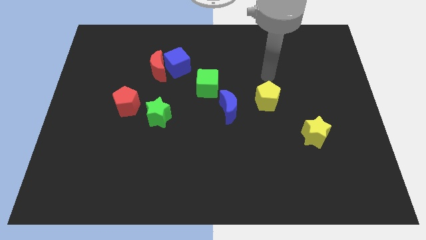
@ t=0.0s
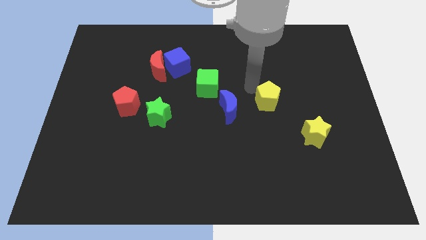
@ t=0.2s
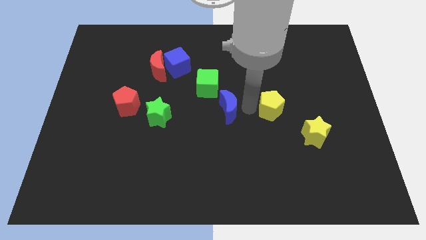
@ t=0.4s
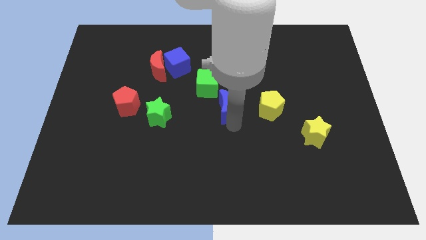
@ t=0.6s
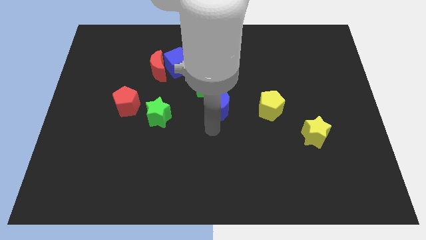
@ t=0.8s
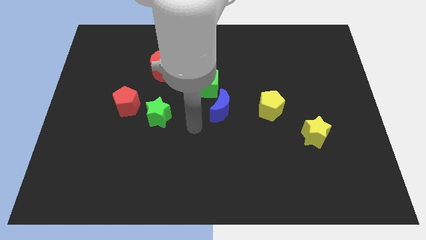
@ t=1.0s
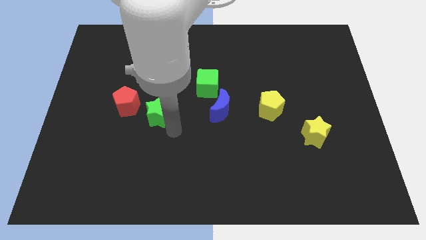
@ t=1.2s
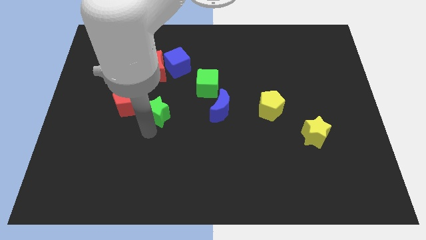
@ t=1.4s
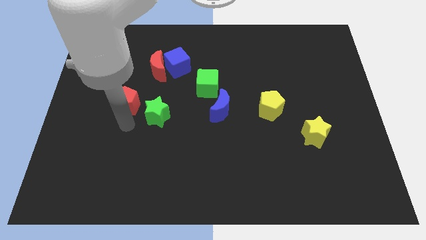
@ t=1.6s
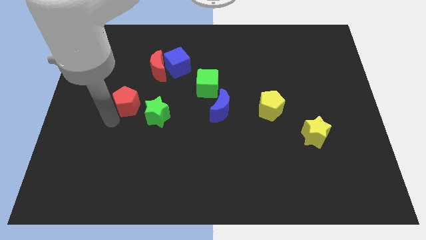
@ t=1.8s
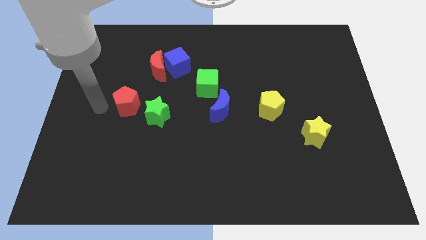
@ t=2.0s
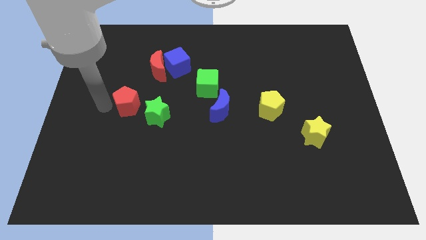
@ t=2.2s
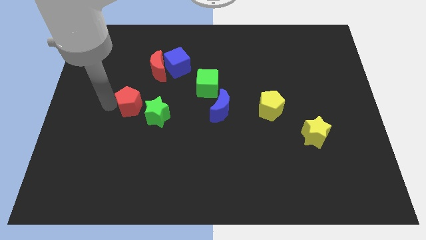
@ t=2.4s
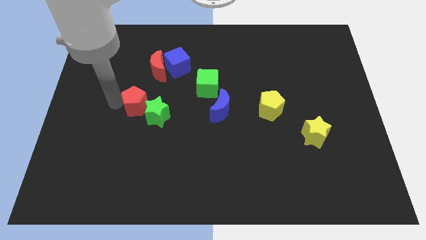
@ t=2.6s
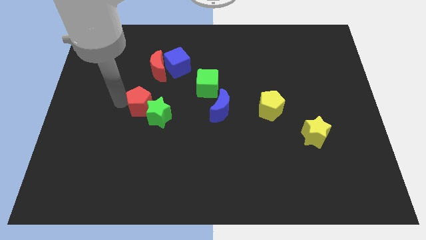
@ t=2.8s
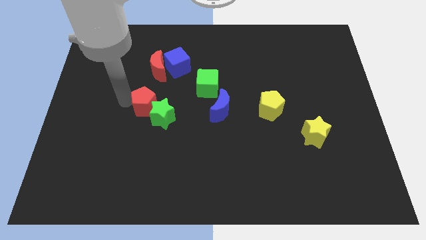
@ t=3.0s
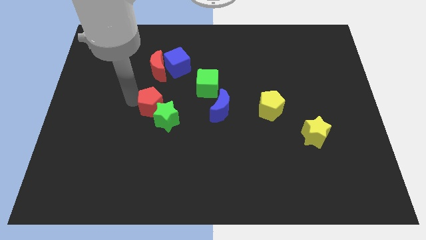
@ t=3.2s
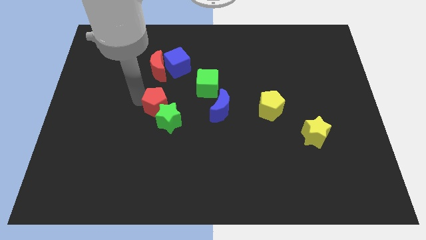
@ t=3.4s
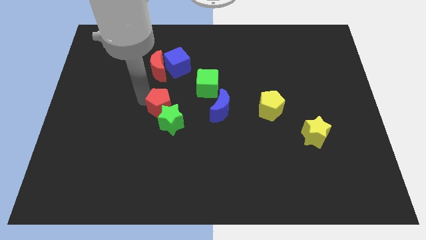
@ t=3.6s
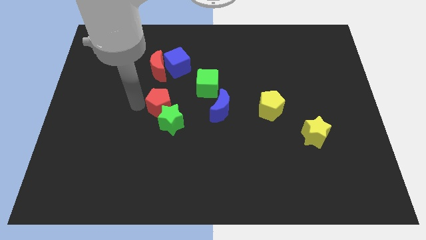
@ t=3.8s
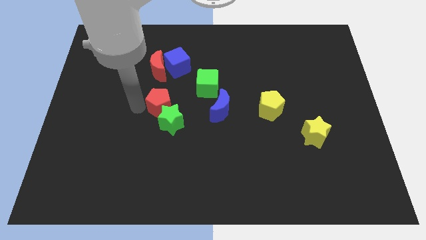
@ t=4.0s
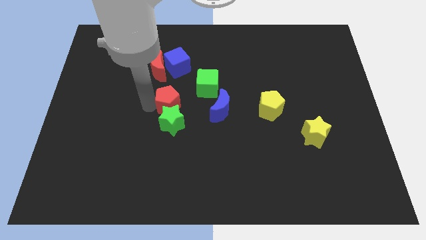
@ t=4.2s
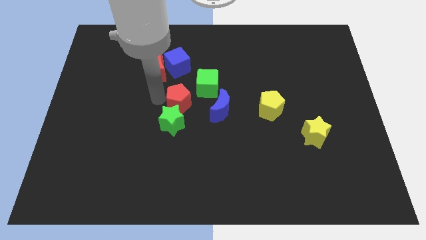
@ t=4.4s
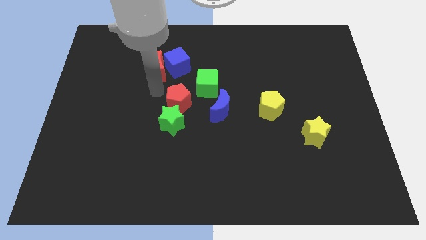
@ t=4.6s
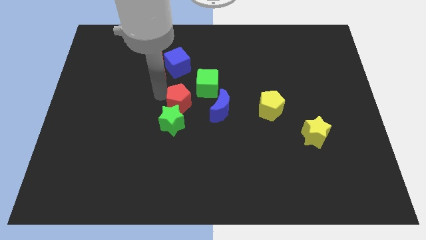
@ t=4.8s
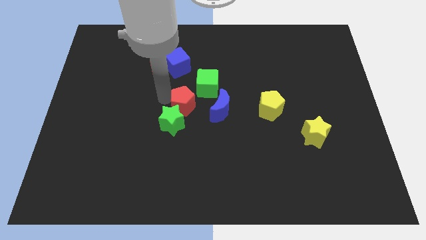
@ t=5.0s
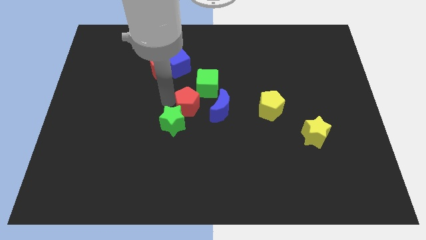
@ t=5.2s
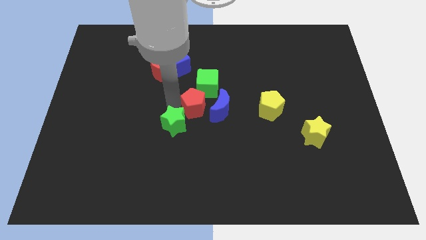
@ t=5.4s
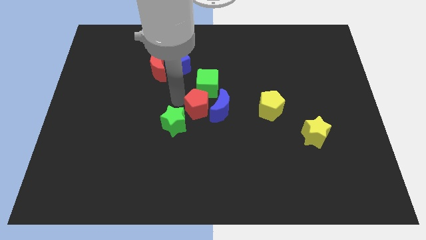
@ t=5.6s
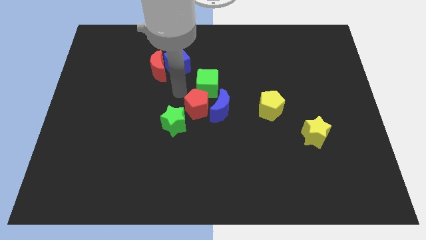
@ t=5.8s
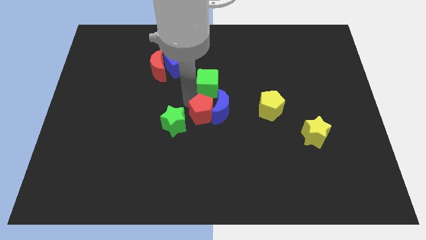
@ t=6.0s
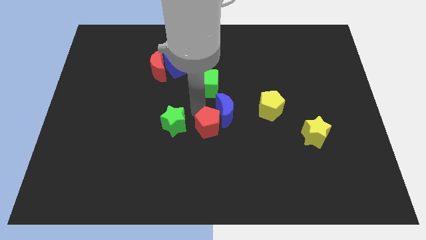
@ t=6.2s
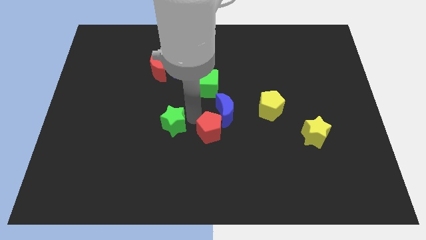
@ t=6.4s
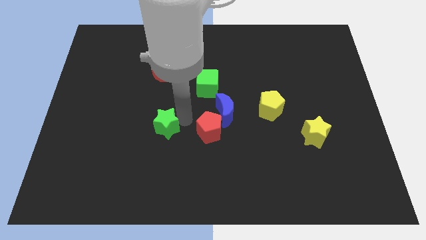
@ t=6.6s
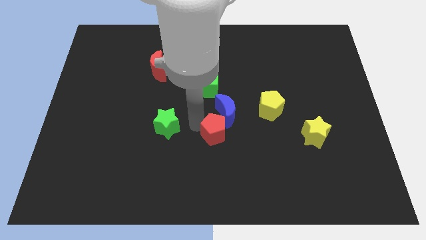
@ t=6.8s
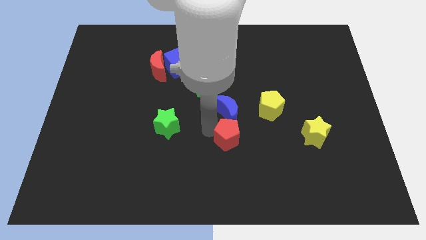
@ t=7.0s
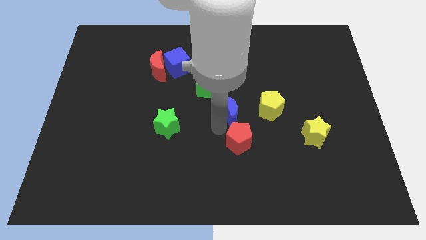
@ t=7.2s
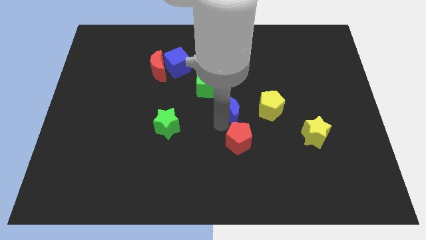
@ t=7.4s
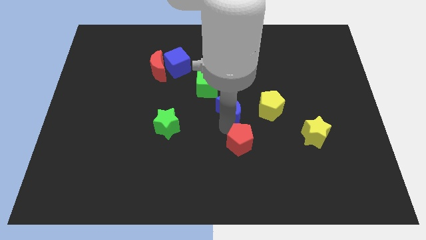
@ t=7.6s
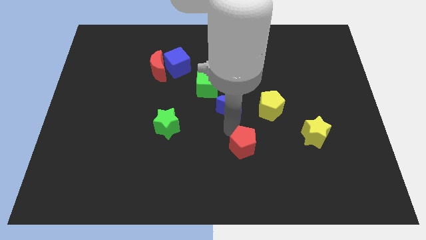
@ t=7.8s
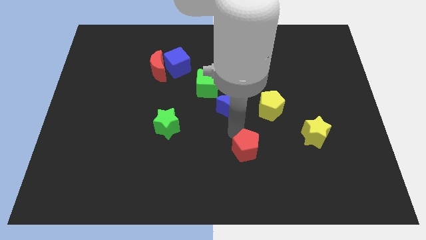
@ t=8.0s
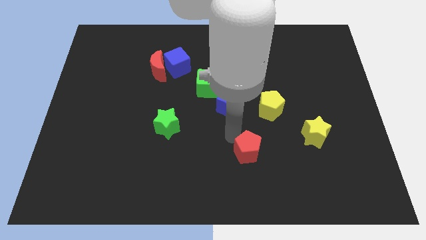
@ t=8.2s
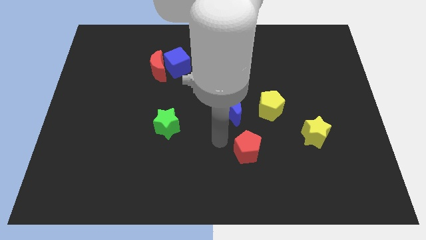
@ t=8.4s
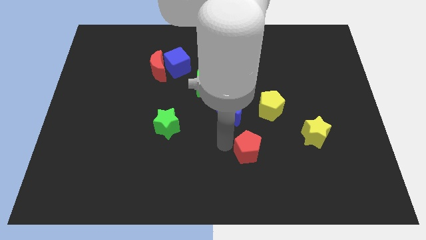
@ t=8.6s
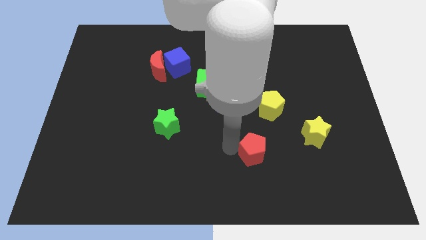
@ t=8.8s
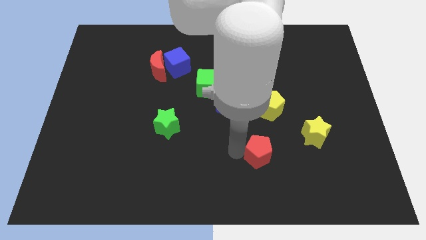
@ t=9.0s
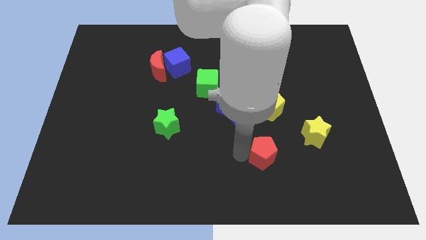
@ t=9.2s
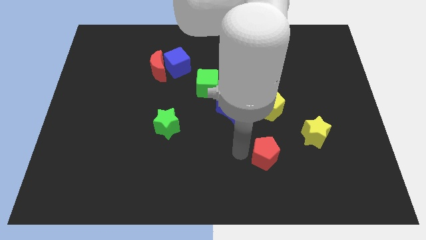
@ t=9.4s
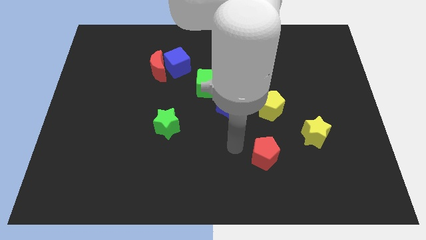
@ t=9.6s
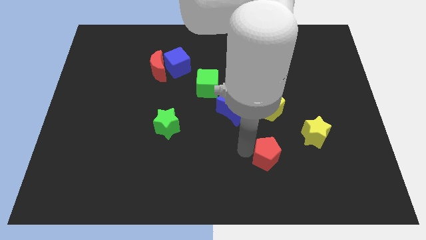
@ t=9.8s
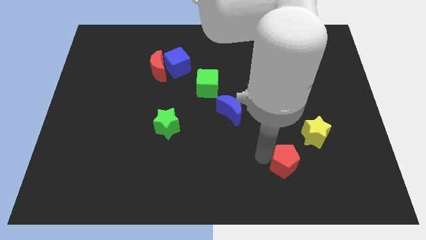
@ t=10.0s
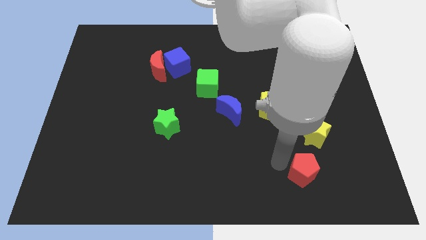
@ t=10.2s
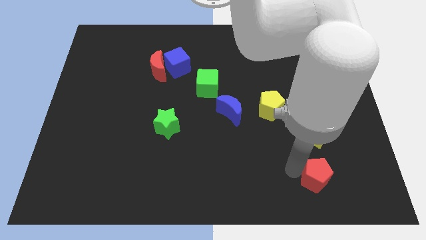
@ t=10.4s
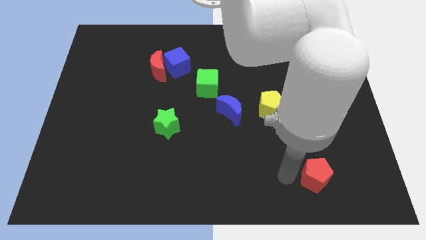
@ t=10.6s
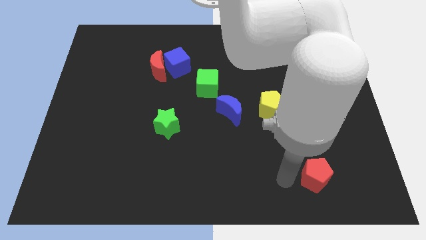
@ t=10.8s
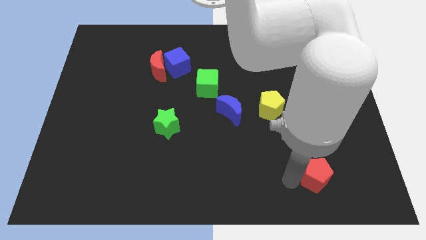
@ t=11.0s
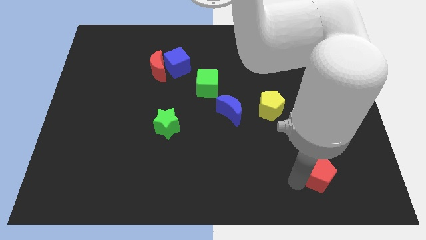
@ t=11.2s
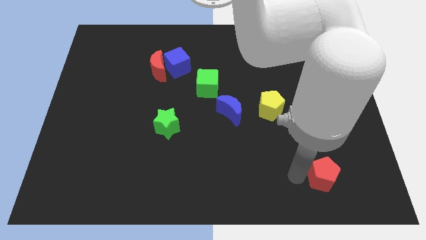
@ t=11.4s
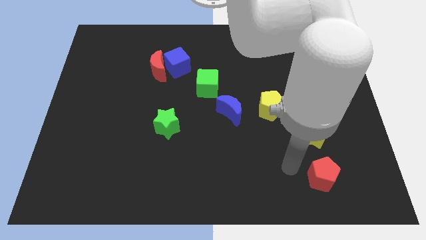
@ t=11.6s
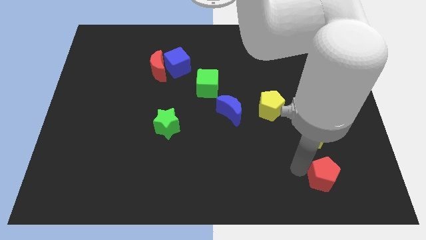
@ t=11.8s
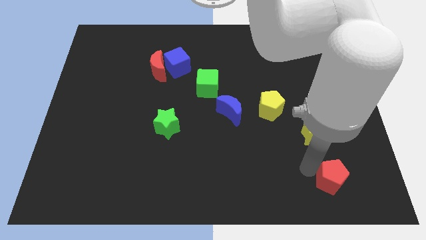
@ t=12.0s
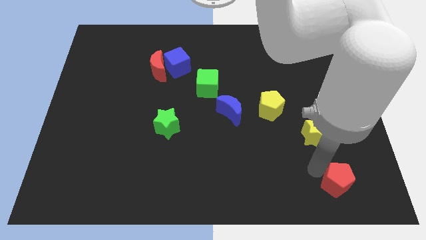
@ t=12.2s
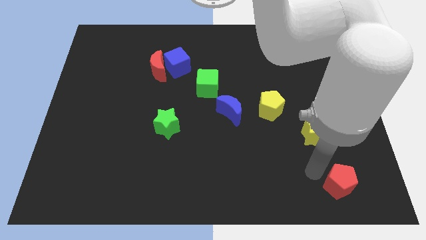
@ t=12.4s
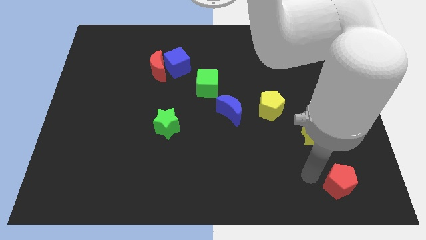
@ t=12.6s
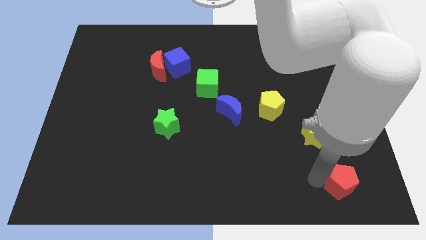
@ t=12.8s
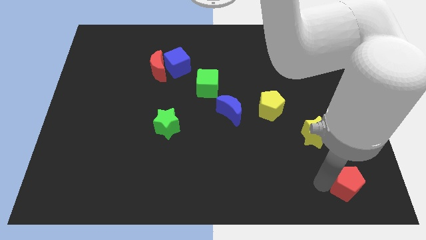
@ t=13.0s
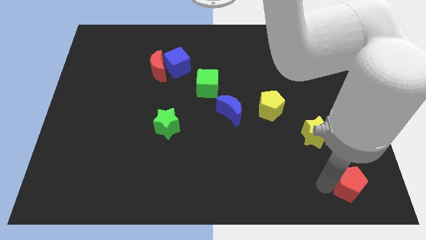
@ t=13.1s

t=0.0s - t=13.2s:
put the red pentagon to the bottom right corner
